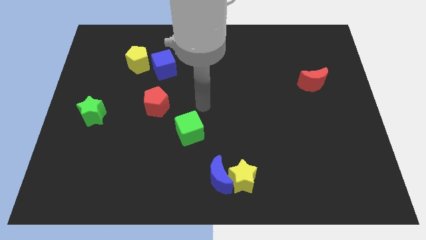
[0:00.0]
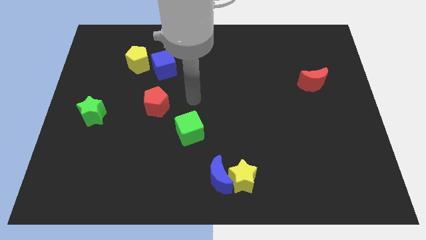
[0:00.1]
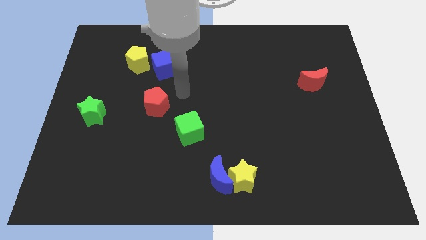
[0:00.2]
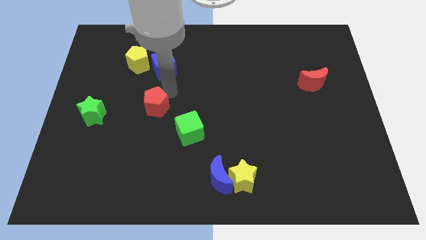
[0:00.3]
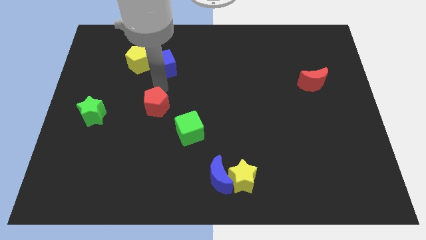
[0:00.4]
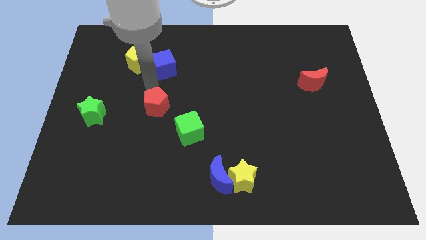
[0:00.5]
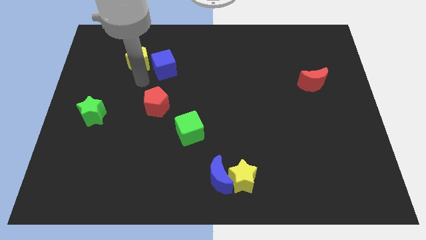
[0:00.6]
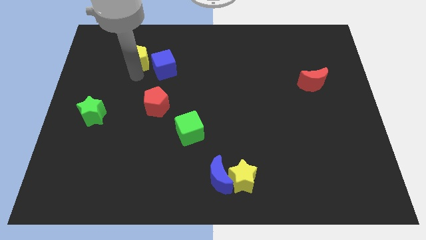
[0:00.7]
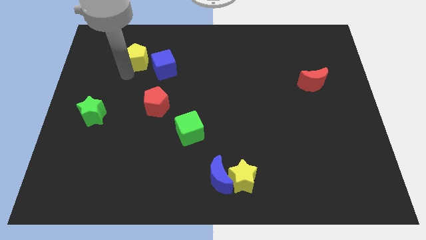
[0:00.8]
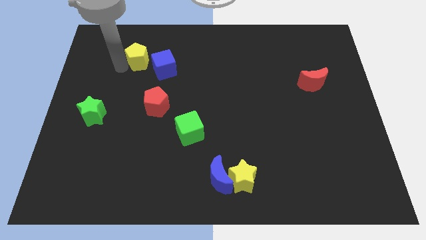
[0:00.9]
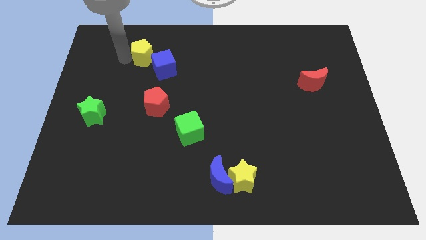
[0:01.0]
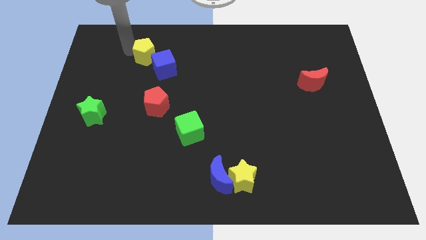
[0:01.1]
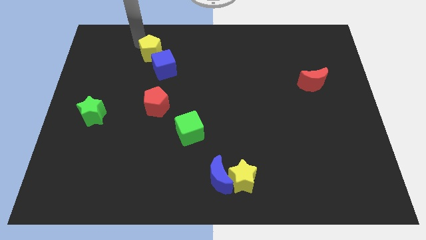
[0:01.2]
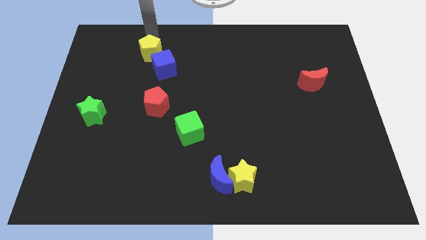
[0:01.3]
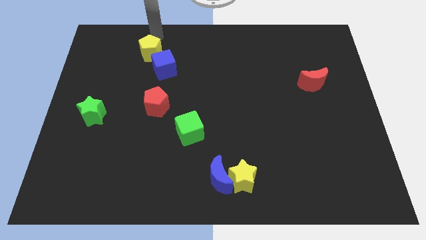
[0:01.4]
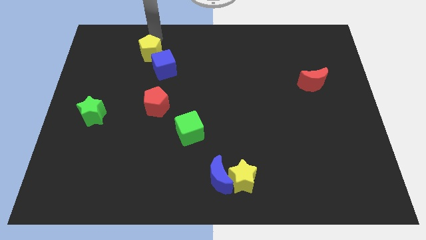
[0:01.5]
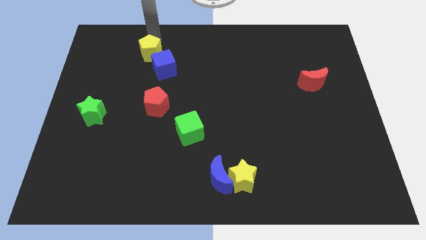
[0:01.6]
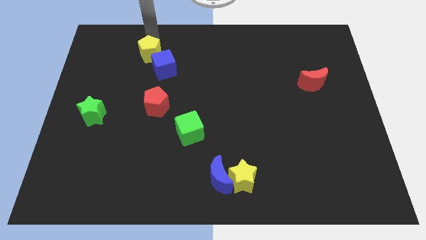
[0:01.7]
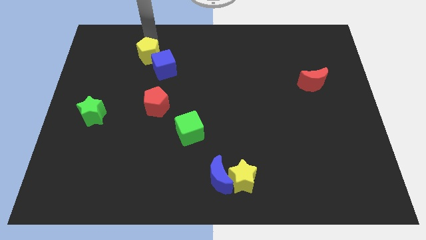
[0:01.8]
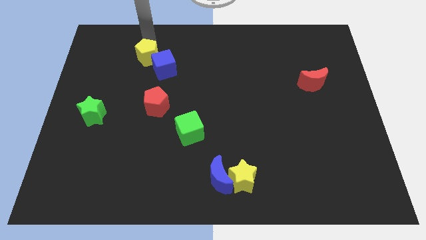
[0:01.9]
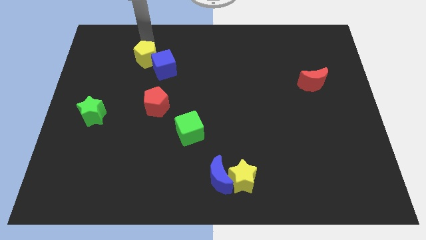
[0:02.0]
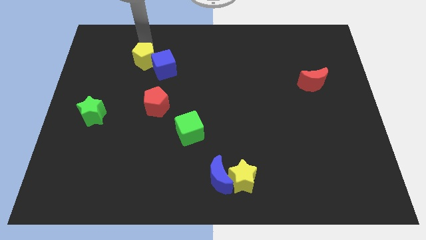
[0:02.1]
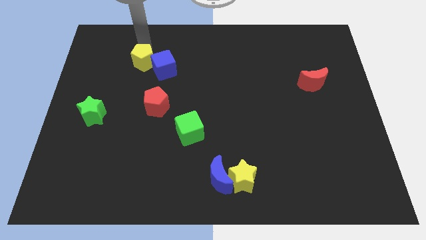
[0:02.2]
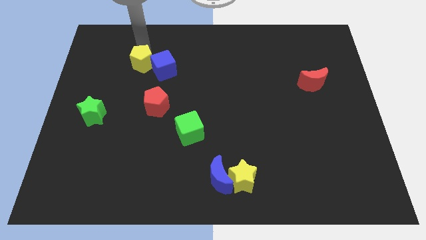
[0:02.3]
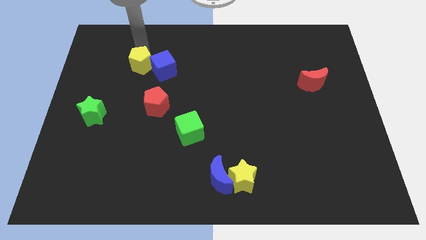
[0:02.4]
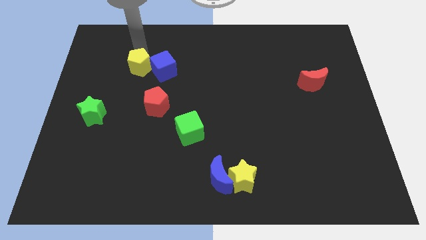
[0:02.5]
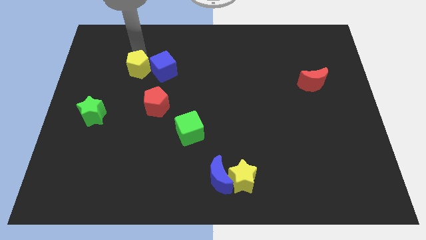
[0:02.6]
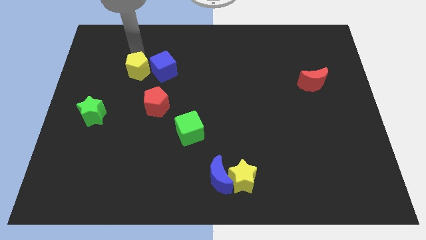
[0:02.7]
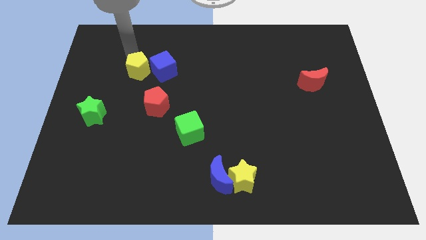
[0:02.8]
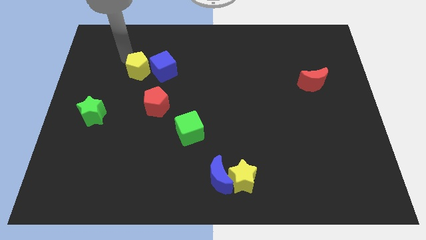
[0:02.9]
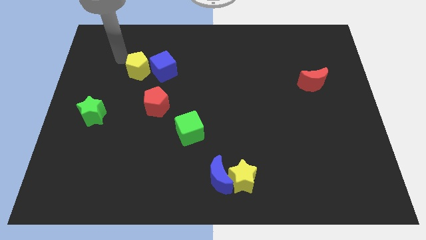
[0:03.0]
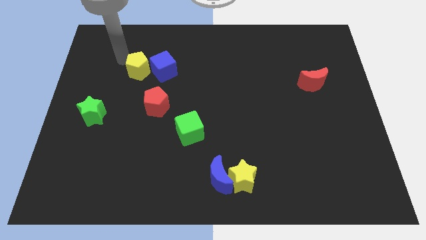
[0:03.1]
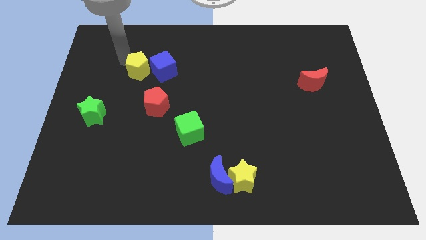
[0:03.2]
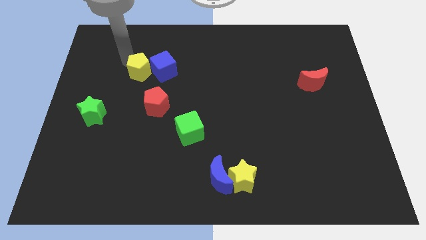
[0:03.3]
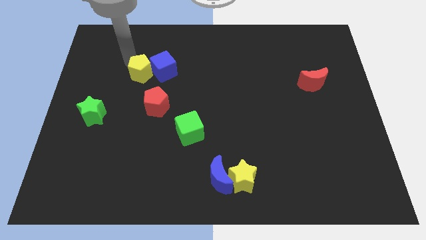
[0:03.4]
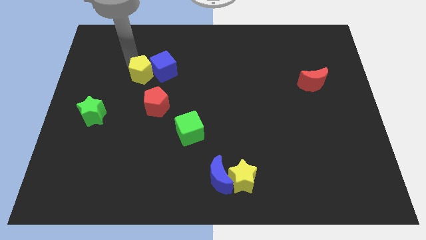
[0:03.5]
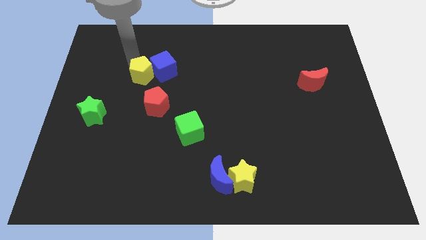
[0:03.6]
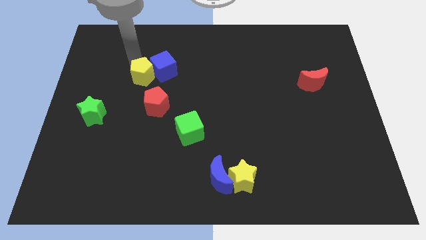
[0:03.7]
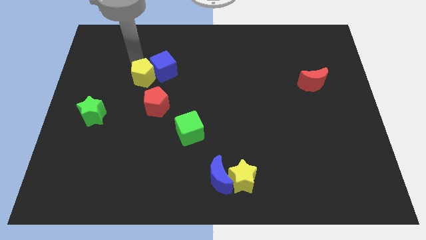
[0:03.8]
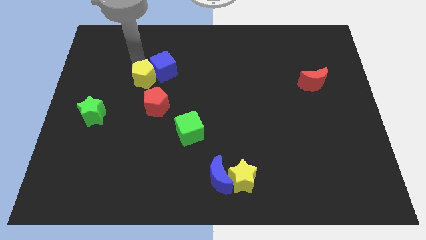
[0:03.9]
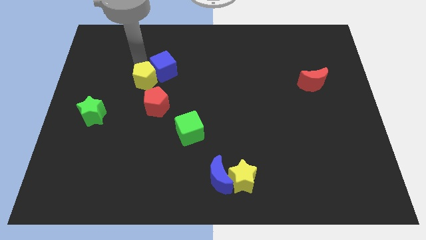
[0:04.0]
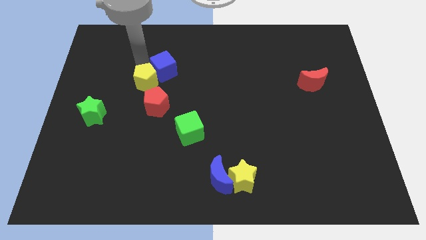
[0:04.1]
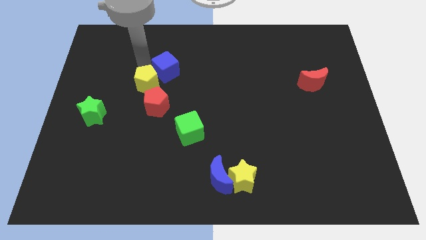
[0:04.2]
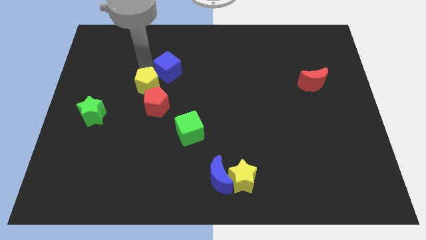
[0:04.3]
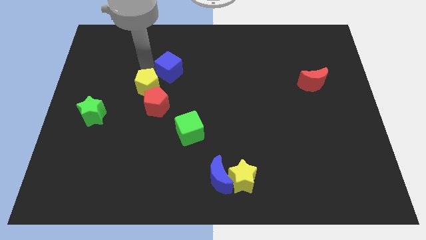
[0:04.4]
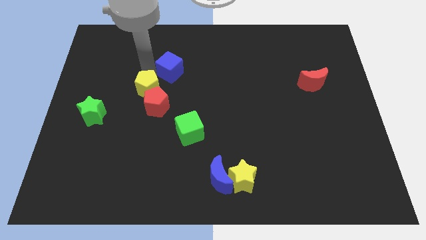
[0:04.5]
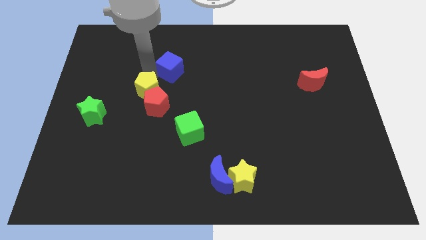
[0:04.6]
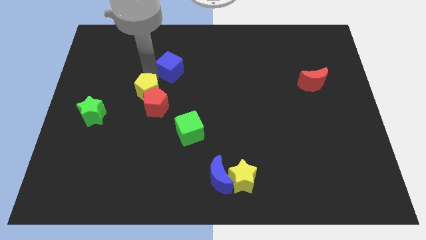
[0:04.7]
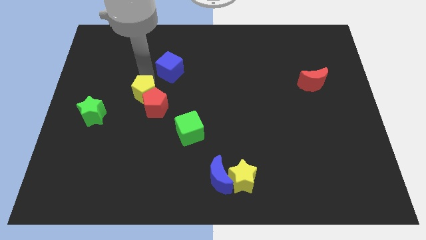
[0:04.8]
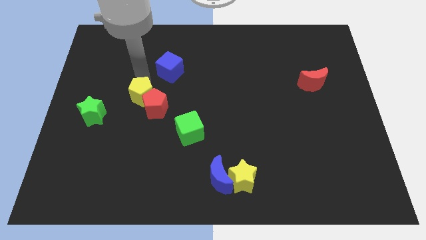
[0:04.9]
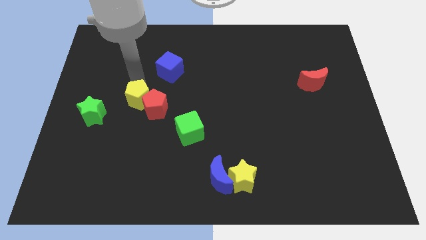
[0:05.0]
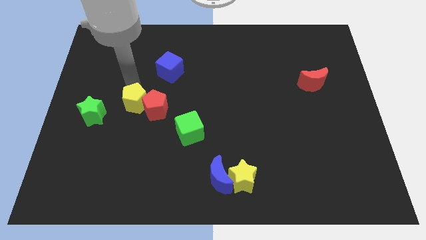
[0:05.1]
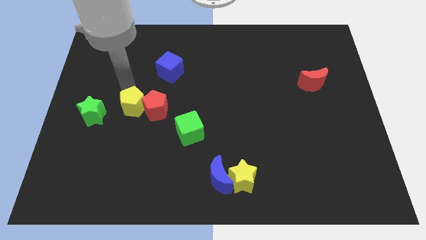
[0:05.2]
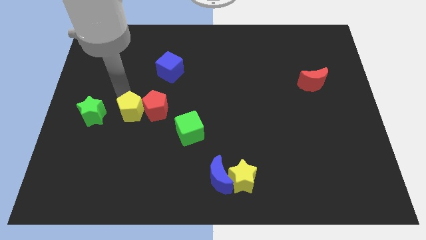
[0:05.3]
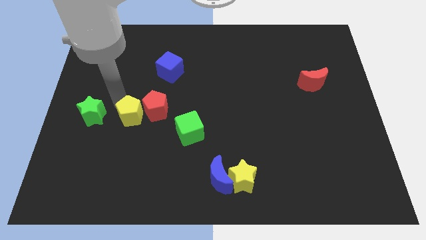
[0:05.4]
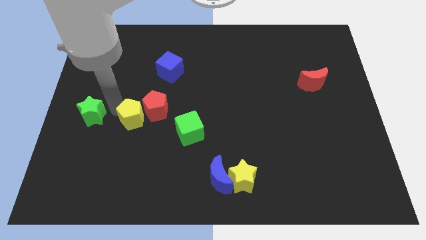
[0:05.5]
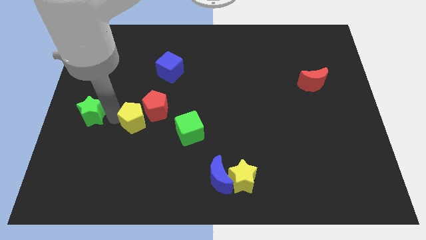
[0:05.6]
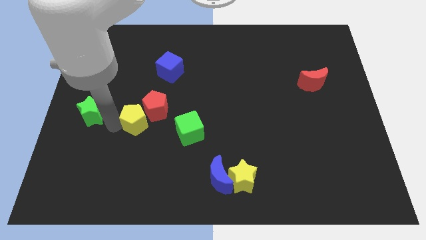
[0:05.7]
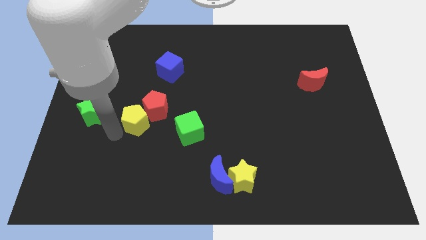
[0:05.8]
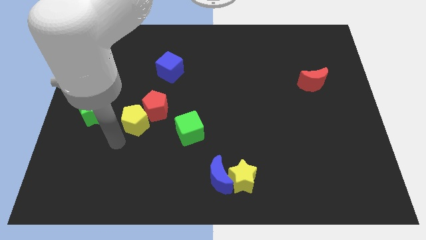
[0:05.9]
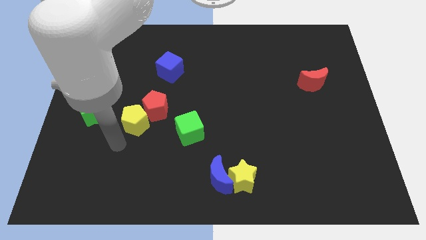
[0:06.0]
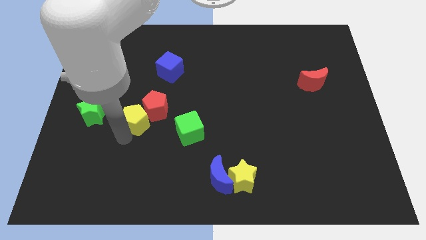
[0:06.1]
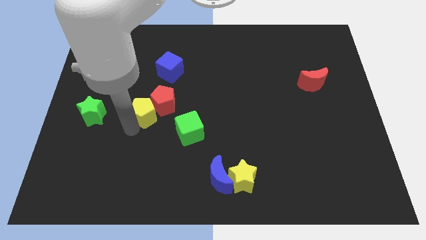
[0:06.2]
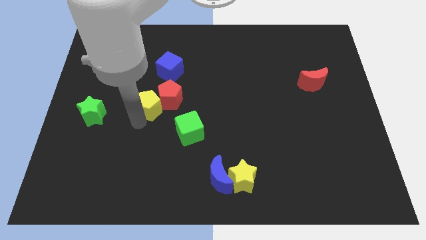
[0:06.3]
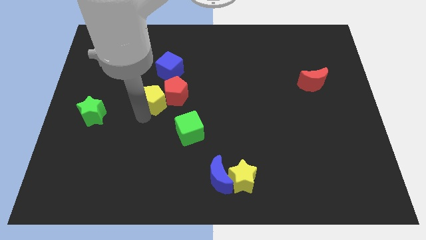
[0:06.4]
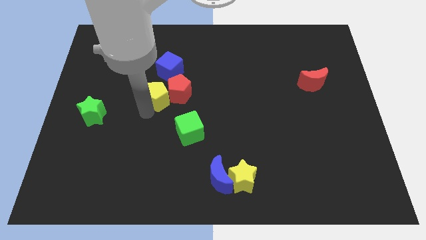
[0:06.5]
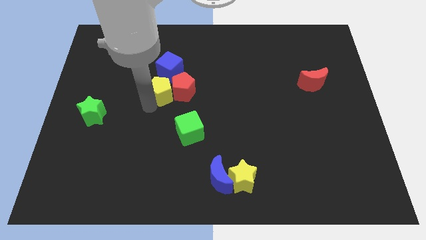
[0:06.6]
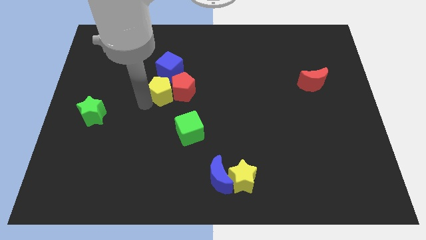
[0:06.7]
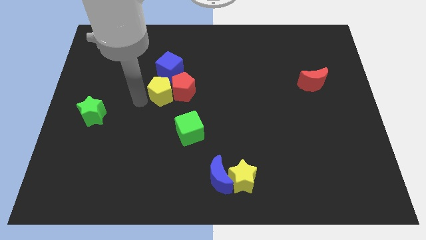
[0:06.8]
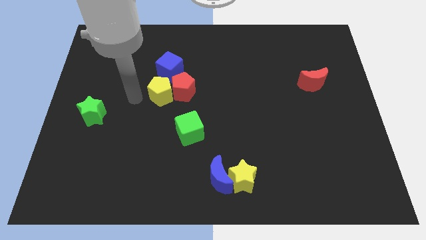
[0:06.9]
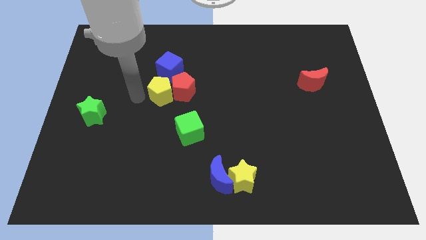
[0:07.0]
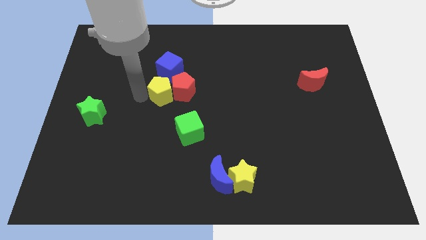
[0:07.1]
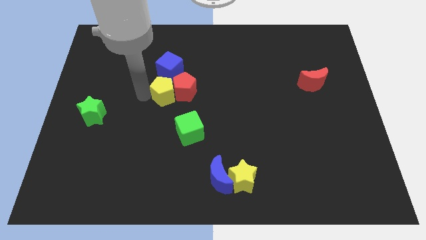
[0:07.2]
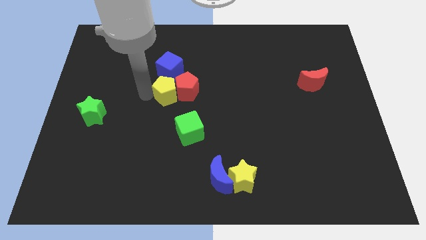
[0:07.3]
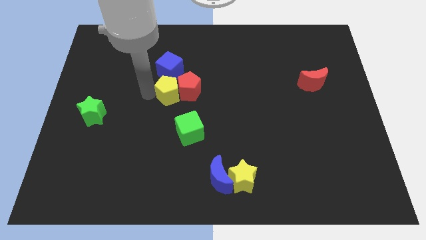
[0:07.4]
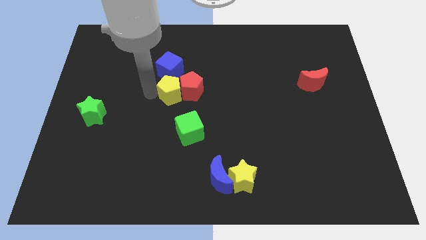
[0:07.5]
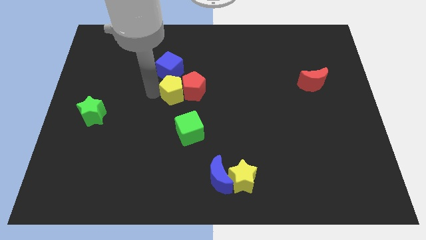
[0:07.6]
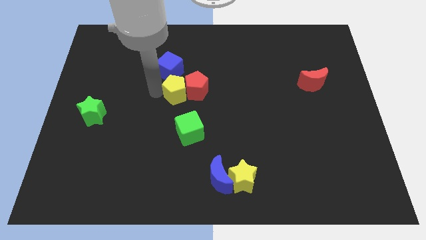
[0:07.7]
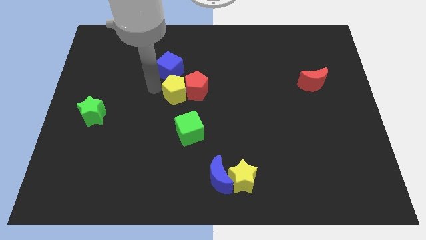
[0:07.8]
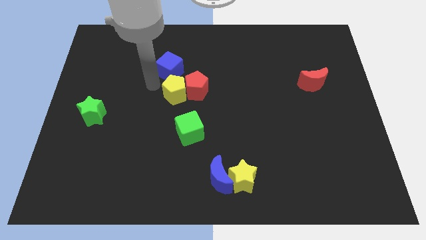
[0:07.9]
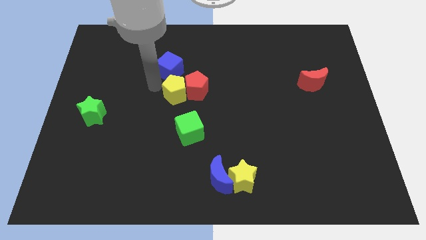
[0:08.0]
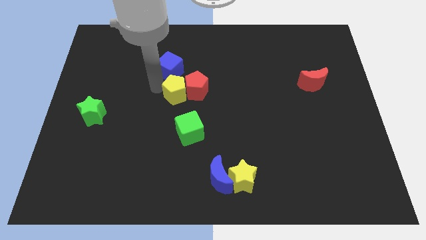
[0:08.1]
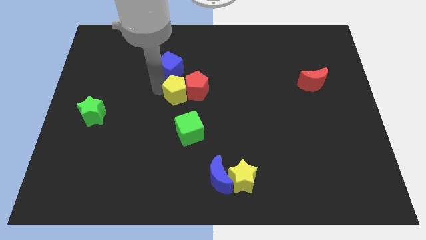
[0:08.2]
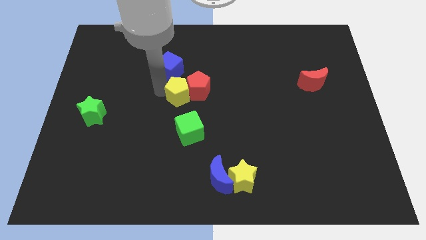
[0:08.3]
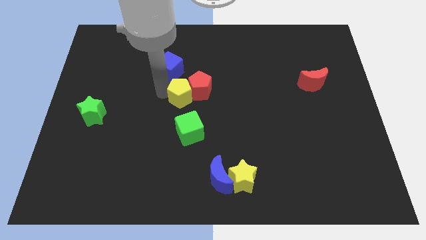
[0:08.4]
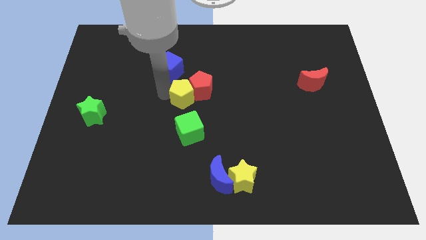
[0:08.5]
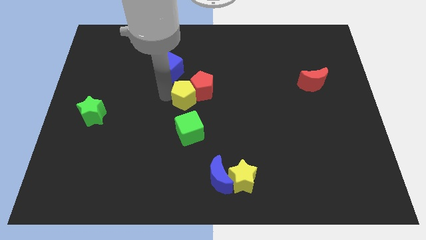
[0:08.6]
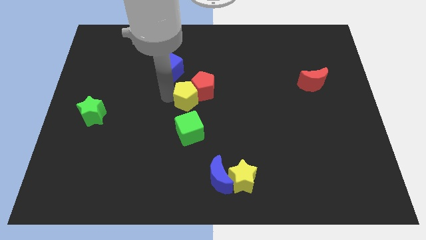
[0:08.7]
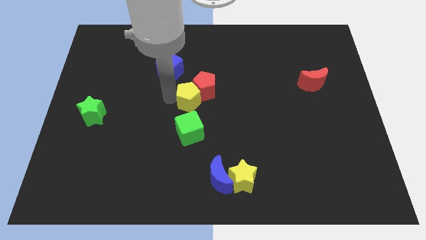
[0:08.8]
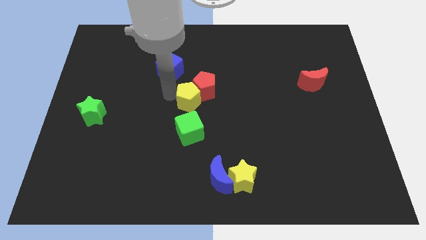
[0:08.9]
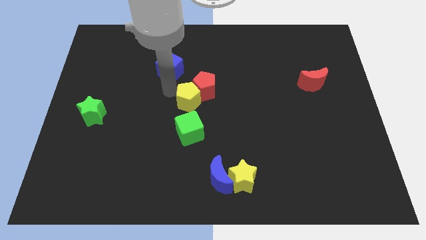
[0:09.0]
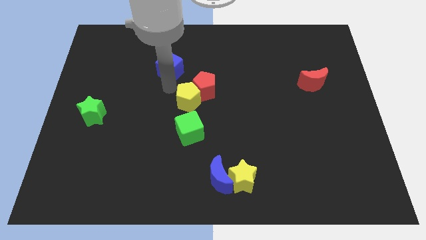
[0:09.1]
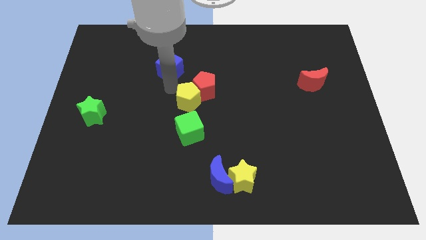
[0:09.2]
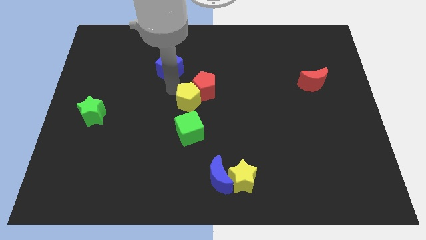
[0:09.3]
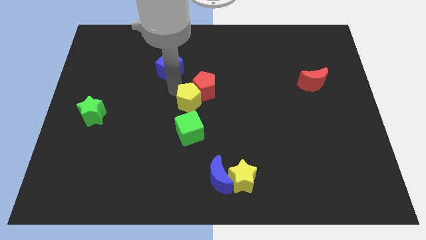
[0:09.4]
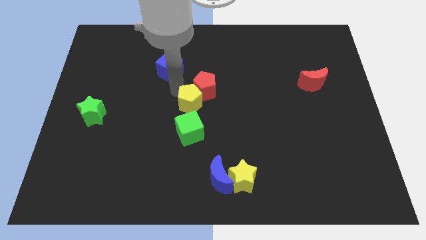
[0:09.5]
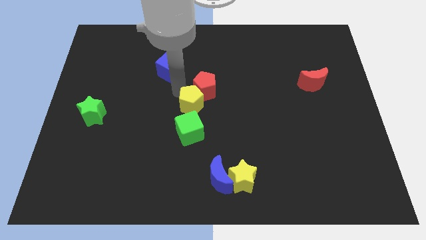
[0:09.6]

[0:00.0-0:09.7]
move the yellow pentagon down and then to the right
